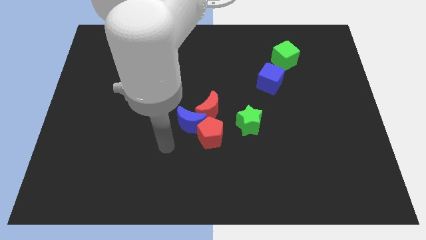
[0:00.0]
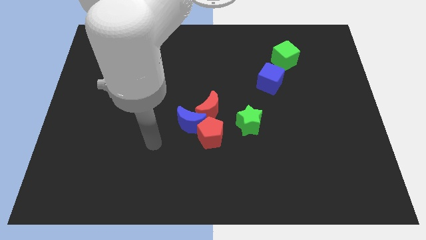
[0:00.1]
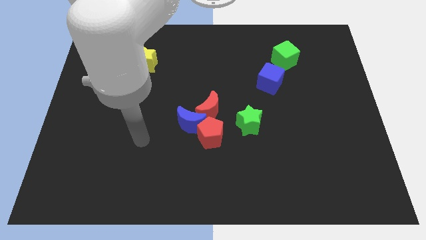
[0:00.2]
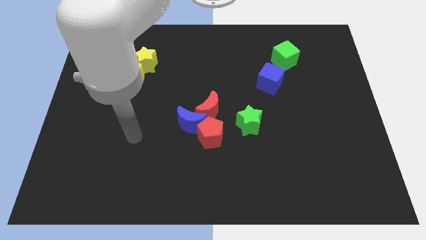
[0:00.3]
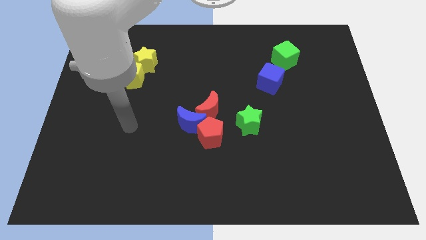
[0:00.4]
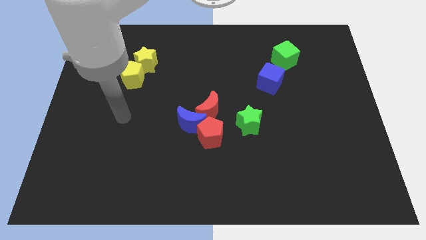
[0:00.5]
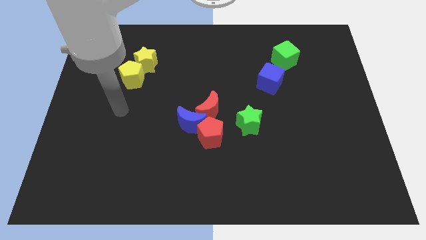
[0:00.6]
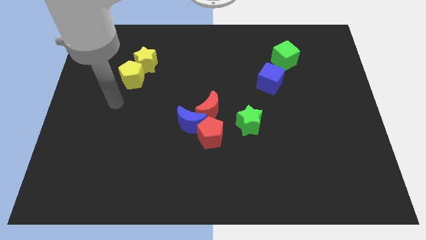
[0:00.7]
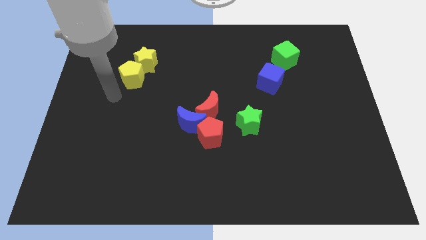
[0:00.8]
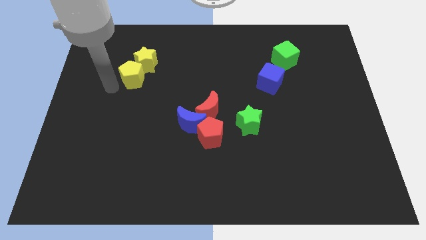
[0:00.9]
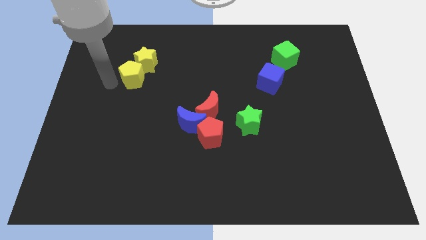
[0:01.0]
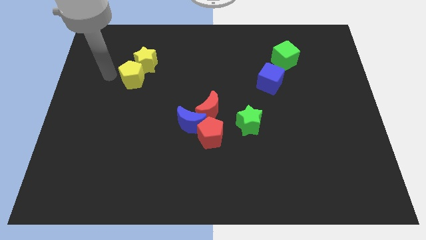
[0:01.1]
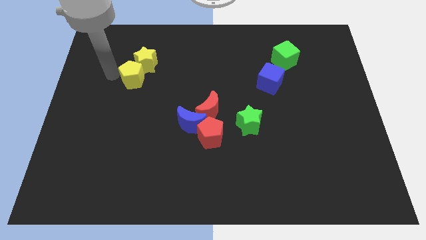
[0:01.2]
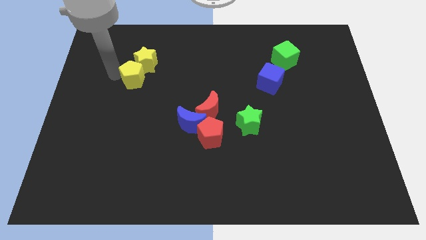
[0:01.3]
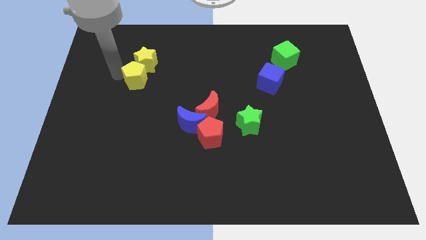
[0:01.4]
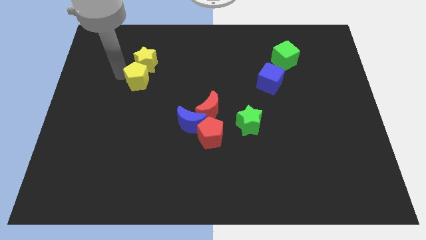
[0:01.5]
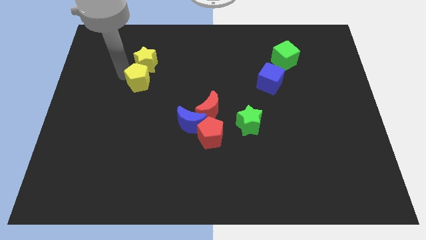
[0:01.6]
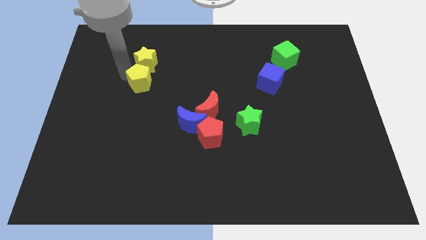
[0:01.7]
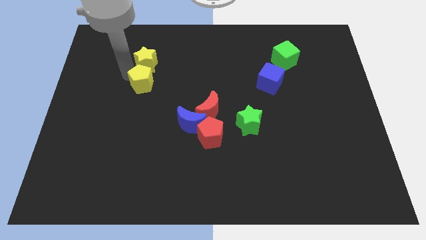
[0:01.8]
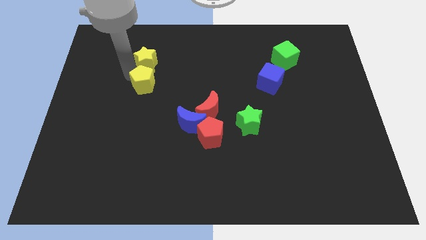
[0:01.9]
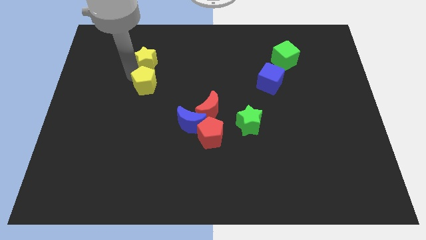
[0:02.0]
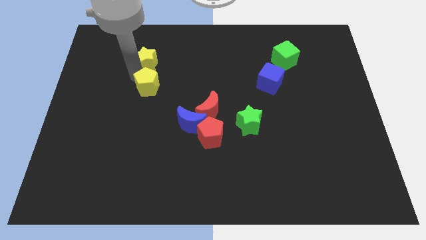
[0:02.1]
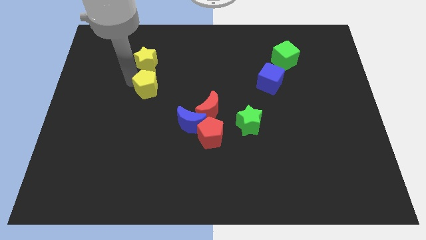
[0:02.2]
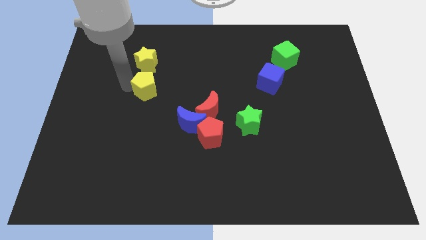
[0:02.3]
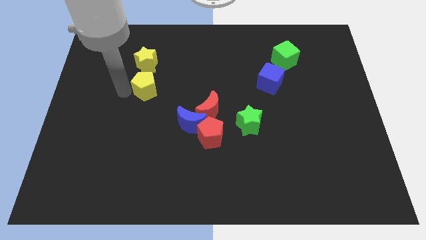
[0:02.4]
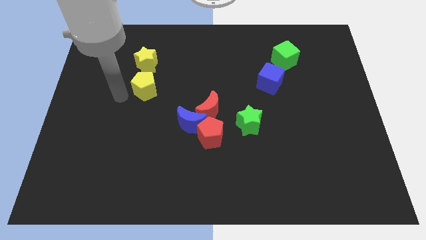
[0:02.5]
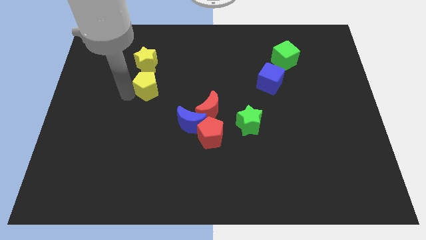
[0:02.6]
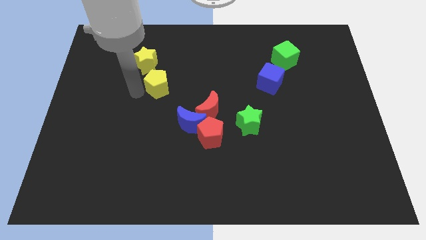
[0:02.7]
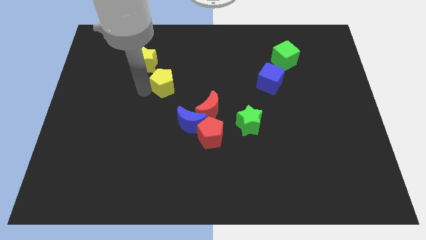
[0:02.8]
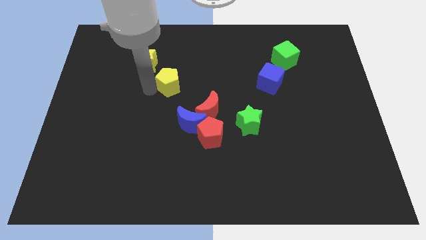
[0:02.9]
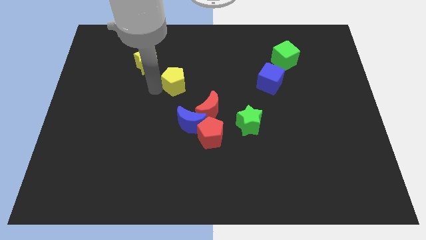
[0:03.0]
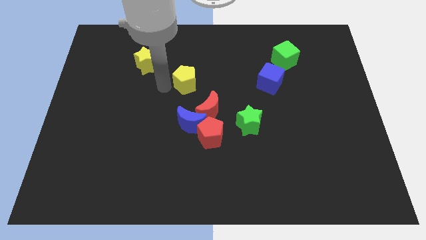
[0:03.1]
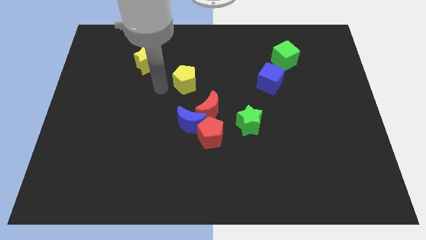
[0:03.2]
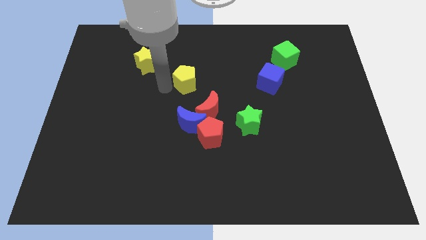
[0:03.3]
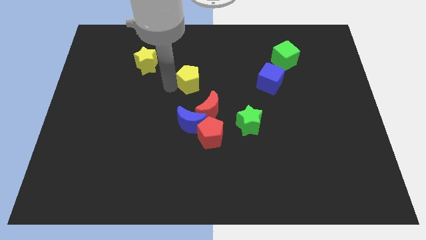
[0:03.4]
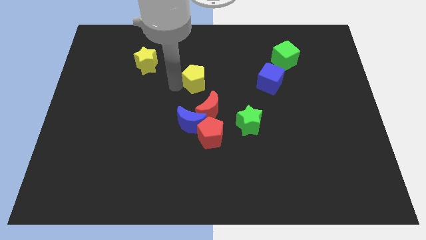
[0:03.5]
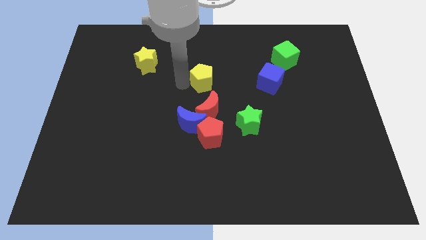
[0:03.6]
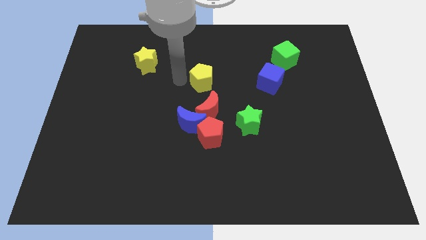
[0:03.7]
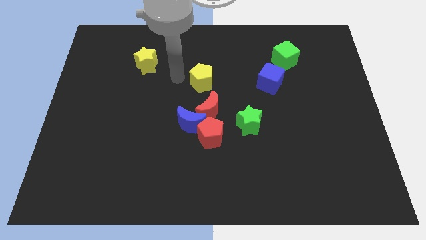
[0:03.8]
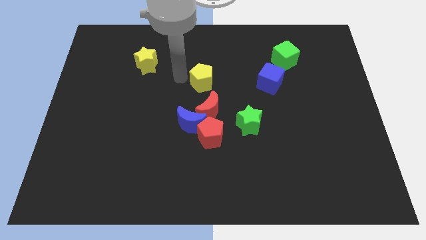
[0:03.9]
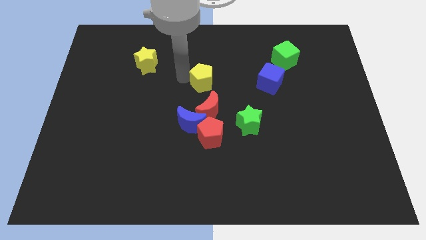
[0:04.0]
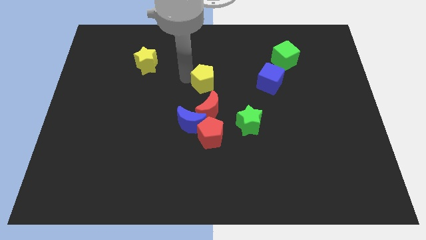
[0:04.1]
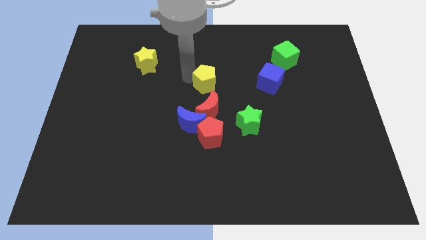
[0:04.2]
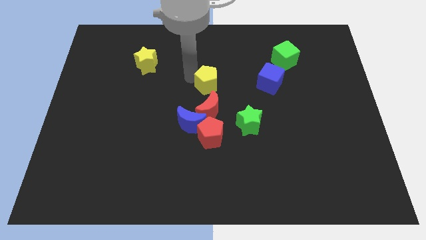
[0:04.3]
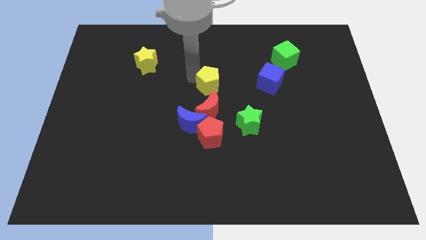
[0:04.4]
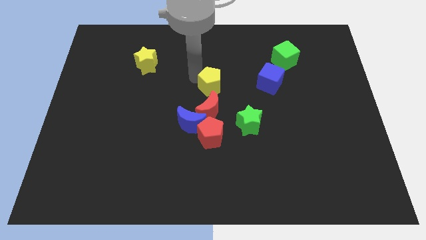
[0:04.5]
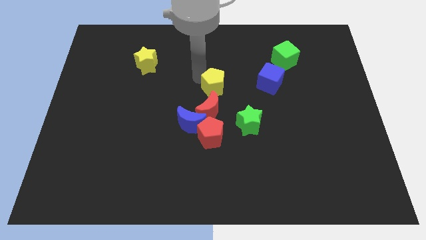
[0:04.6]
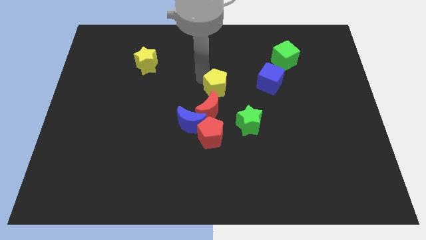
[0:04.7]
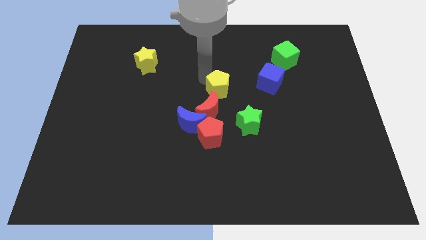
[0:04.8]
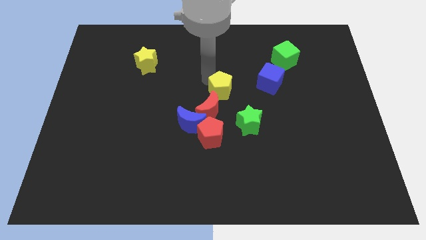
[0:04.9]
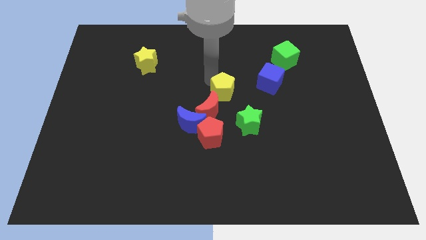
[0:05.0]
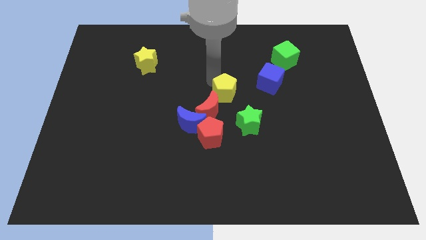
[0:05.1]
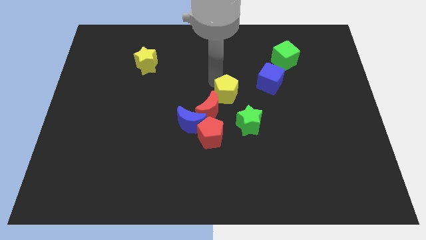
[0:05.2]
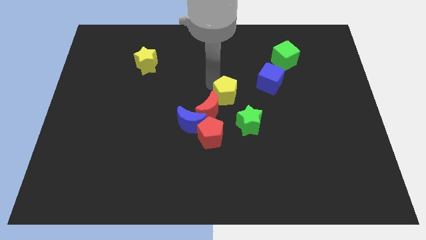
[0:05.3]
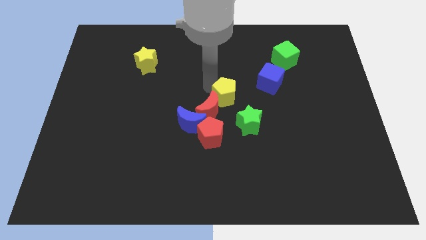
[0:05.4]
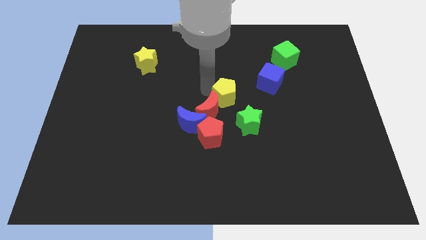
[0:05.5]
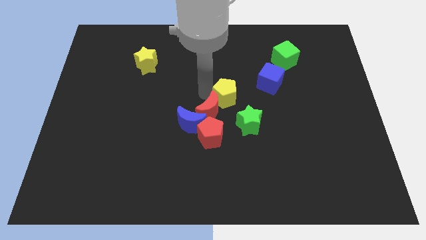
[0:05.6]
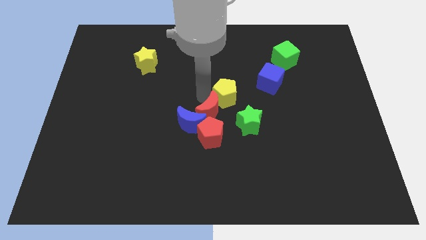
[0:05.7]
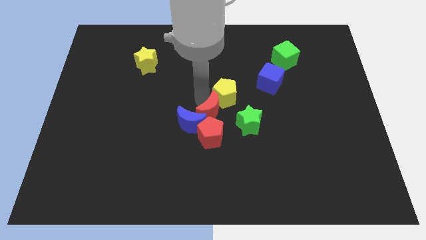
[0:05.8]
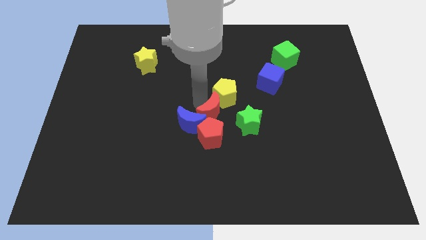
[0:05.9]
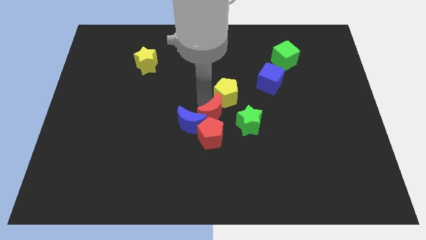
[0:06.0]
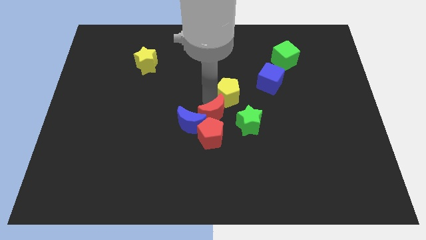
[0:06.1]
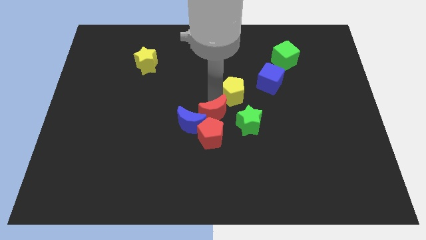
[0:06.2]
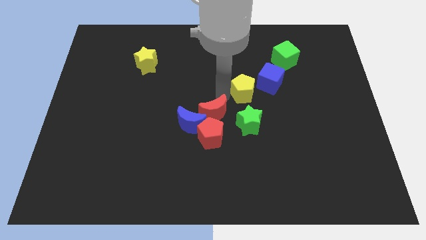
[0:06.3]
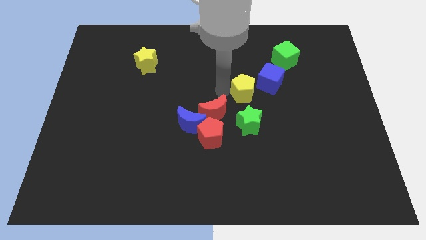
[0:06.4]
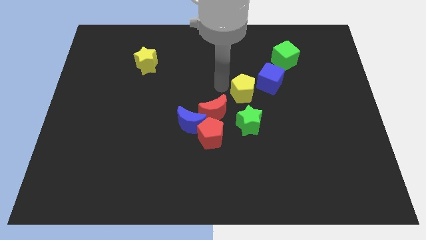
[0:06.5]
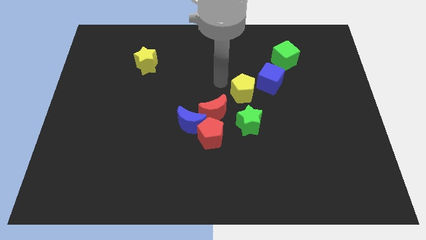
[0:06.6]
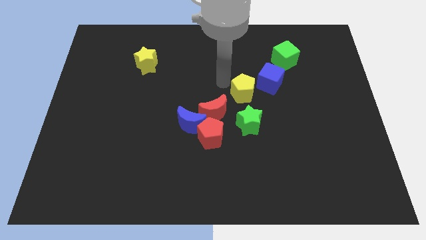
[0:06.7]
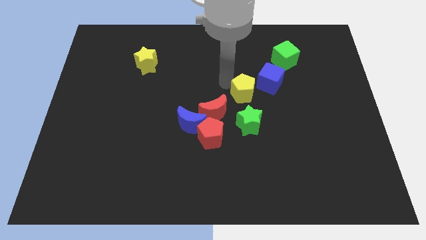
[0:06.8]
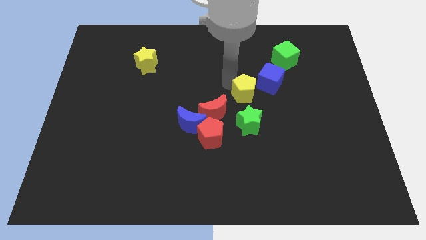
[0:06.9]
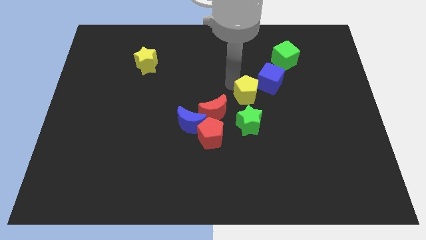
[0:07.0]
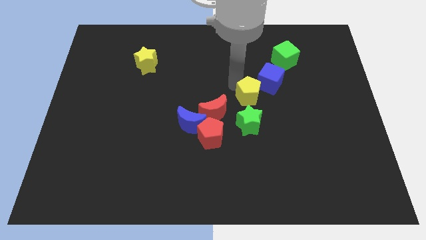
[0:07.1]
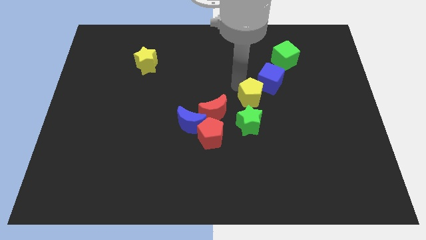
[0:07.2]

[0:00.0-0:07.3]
slide the yellow pentagon to the top right of the green star
